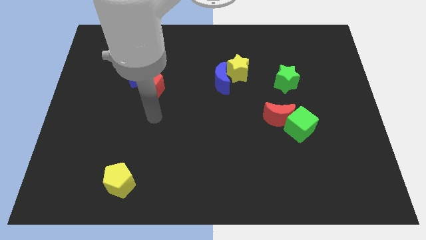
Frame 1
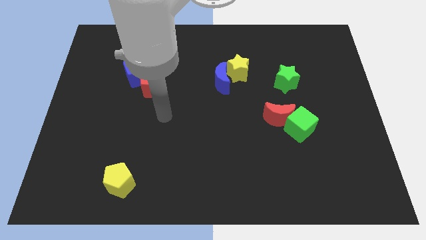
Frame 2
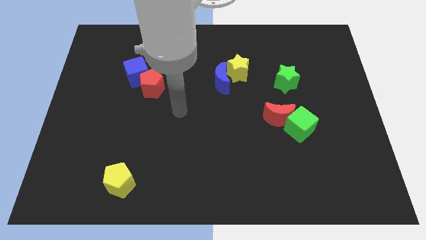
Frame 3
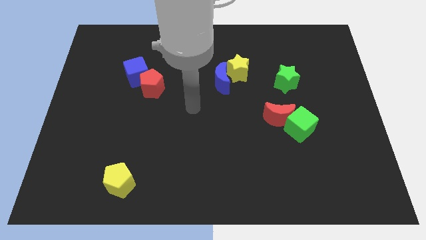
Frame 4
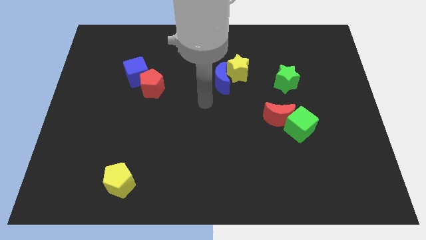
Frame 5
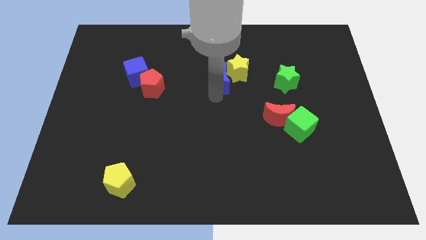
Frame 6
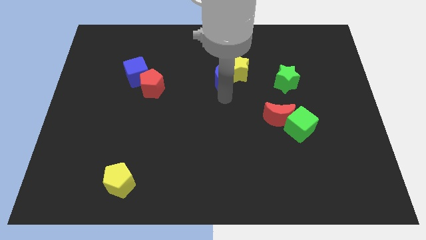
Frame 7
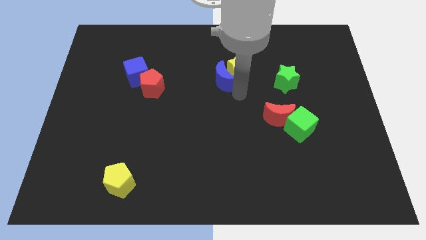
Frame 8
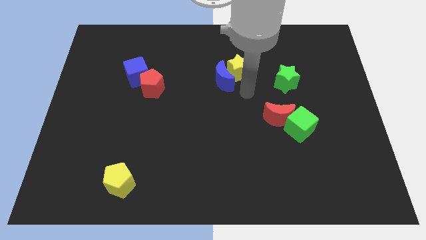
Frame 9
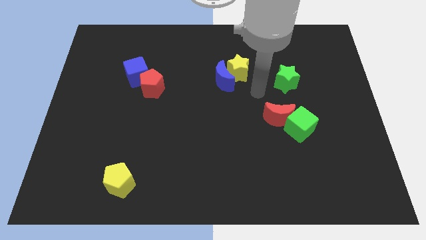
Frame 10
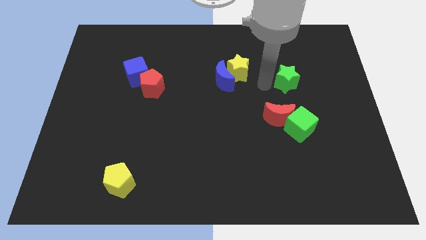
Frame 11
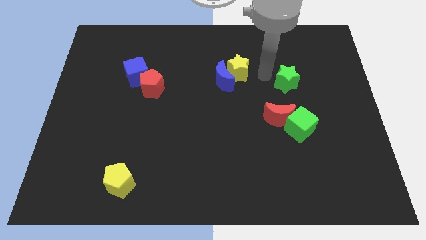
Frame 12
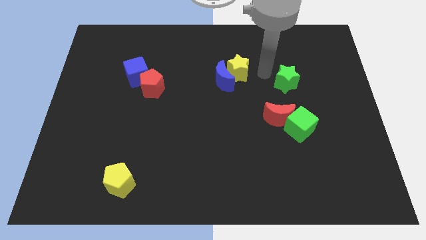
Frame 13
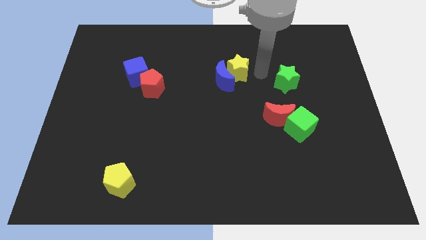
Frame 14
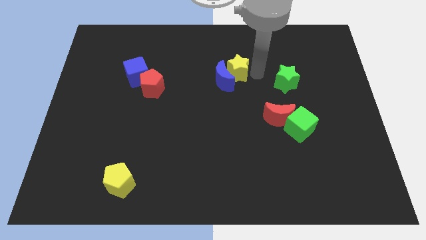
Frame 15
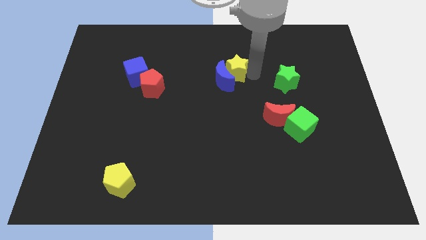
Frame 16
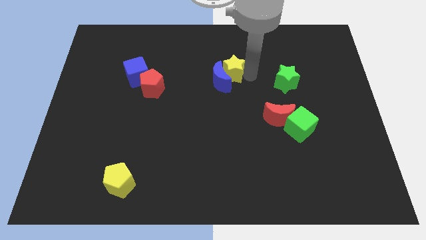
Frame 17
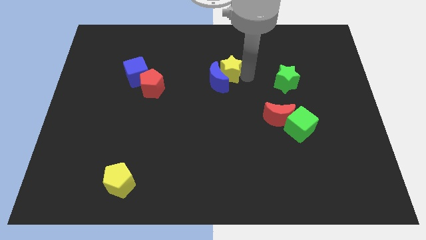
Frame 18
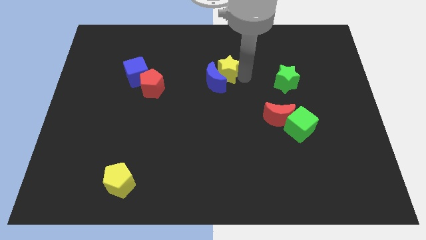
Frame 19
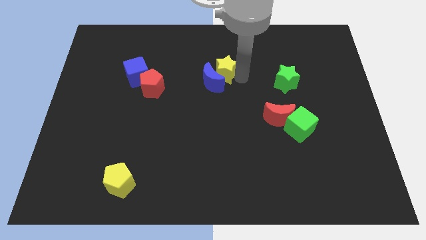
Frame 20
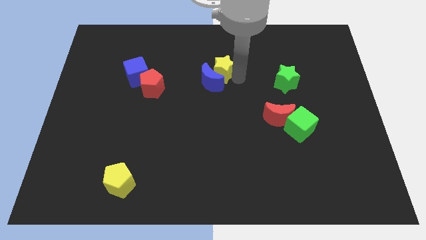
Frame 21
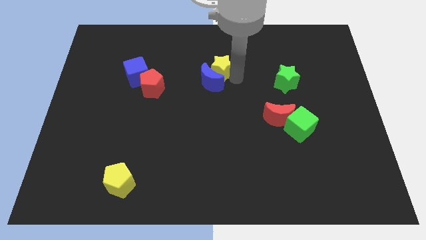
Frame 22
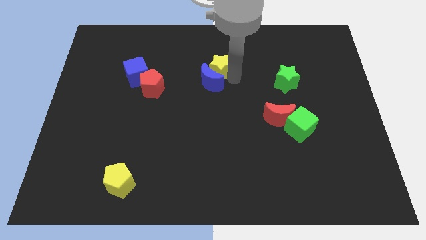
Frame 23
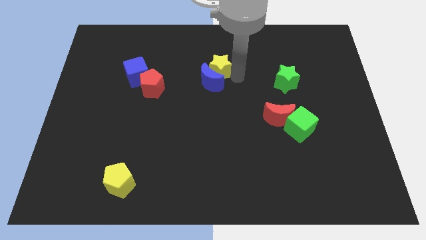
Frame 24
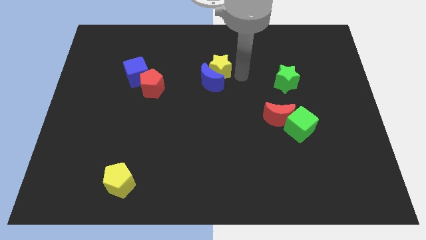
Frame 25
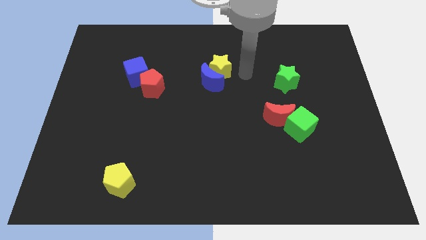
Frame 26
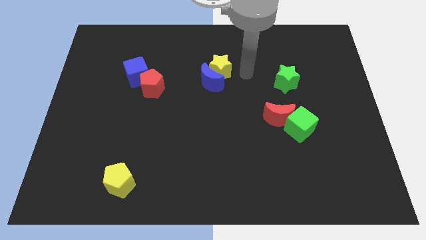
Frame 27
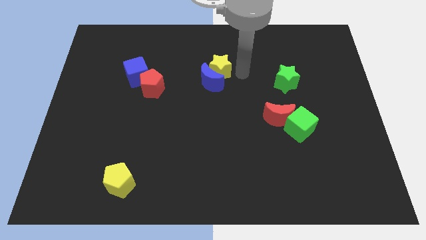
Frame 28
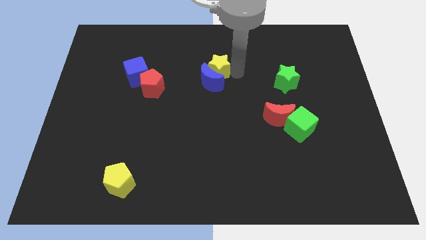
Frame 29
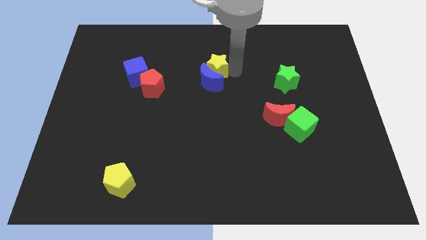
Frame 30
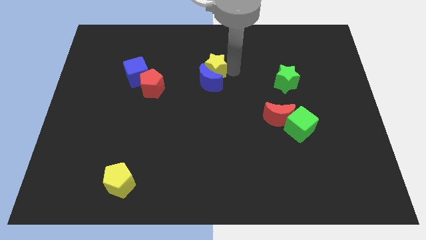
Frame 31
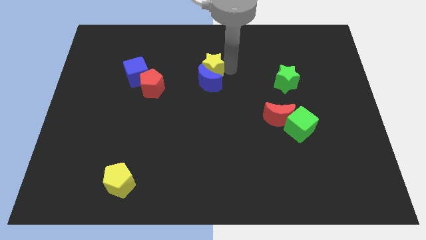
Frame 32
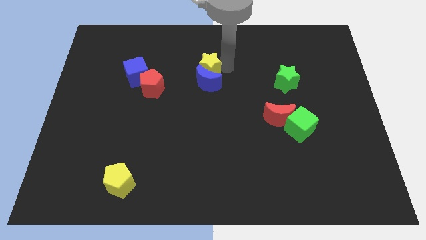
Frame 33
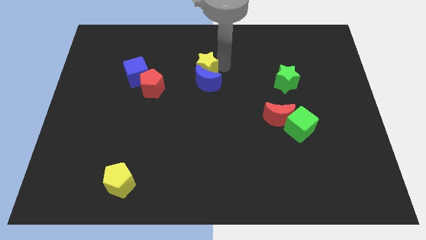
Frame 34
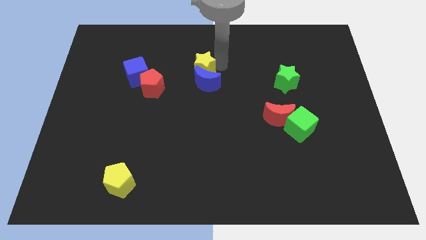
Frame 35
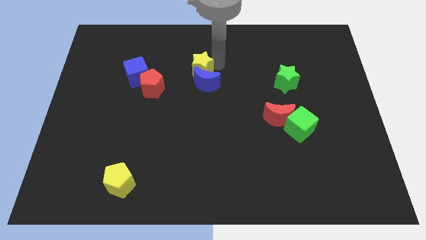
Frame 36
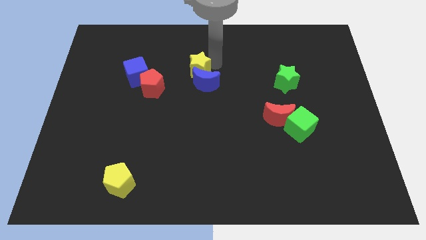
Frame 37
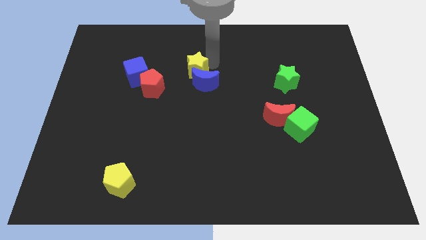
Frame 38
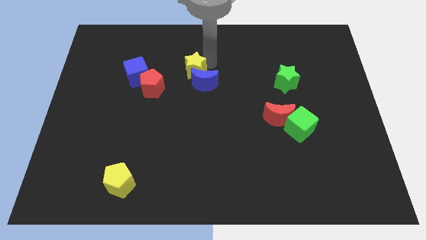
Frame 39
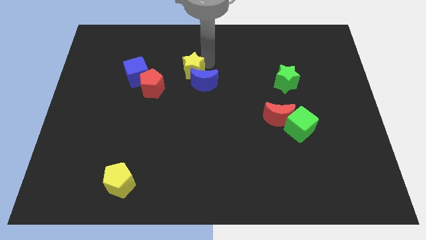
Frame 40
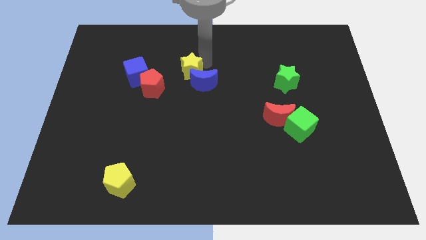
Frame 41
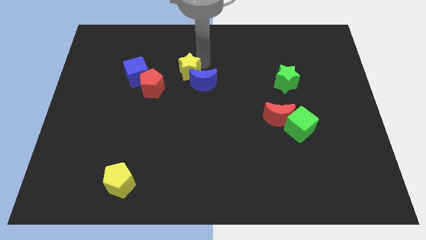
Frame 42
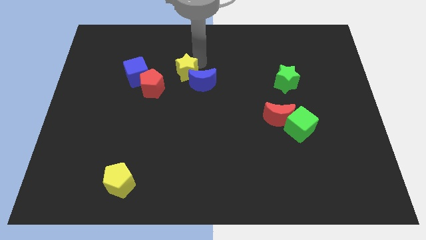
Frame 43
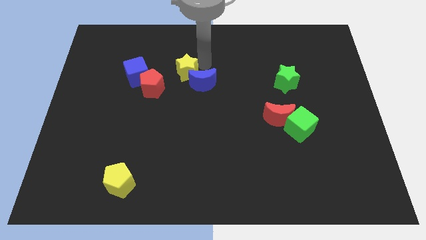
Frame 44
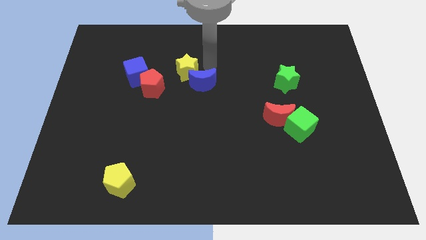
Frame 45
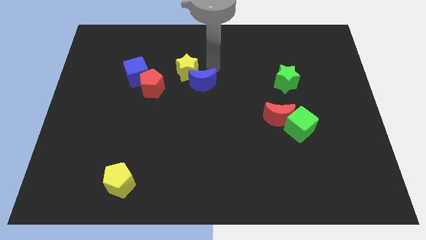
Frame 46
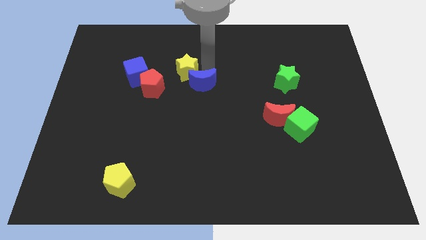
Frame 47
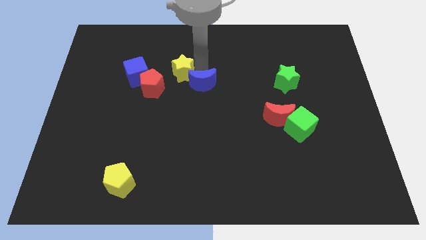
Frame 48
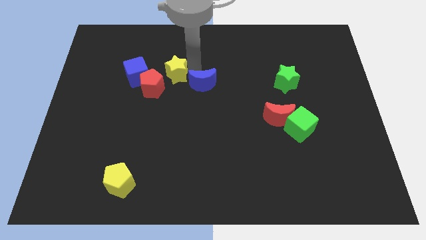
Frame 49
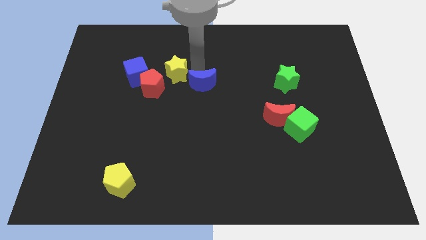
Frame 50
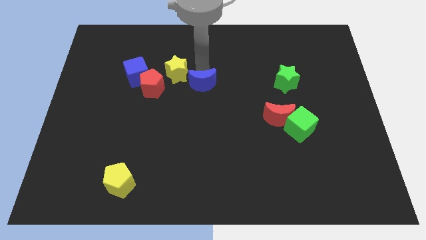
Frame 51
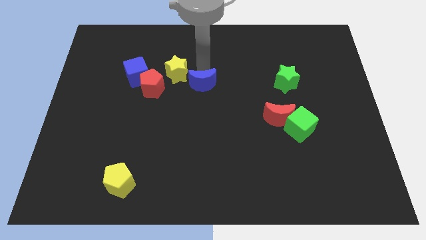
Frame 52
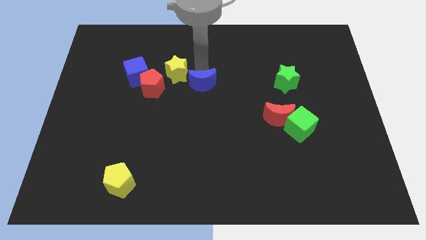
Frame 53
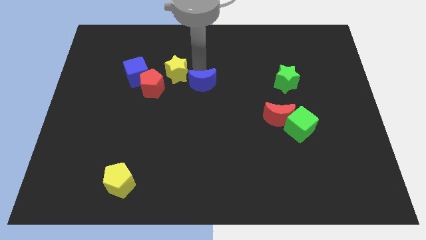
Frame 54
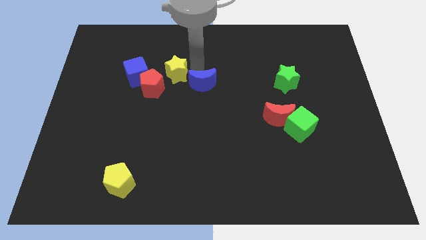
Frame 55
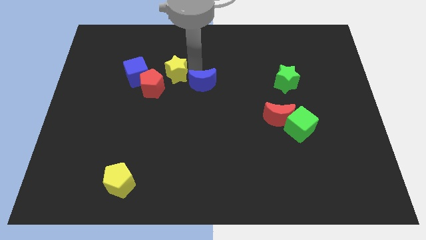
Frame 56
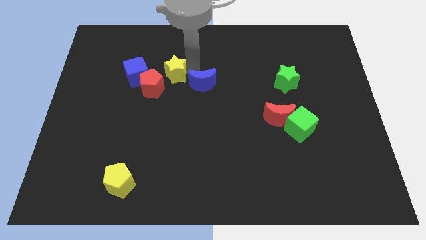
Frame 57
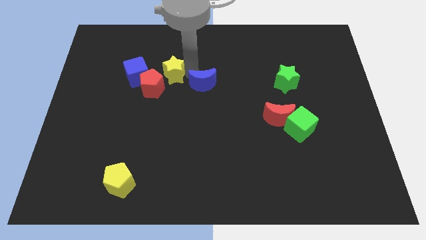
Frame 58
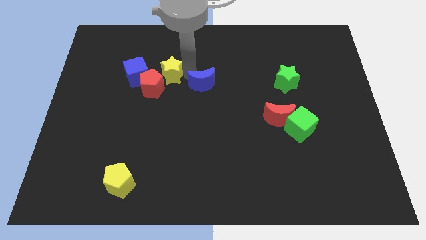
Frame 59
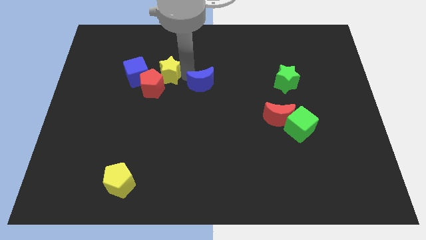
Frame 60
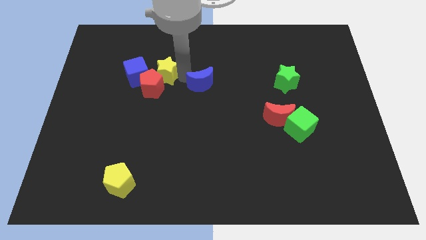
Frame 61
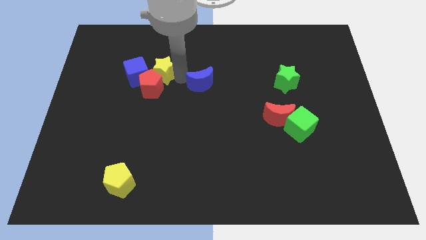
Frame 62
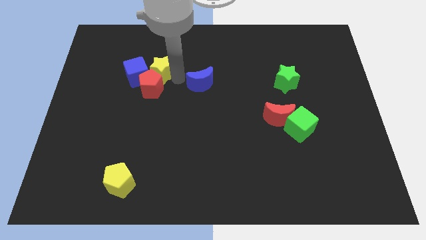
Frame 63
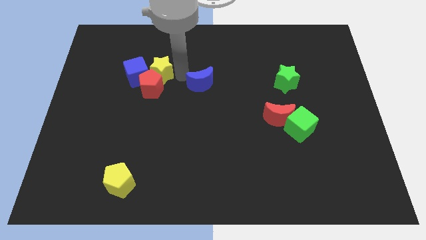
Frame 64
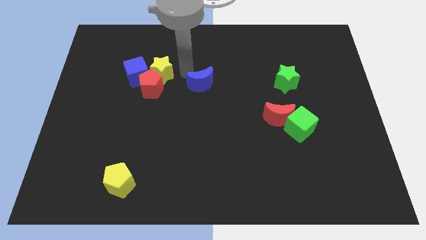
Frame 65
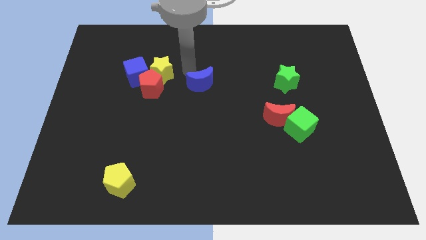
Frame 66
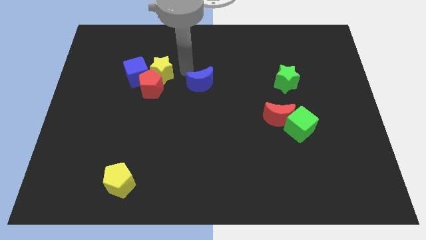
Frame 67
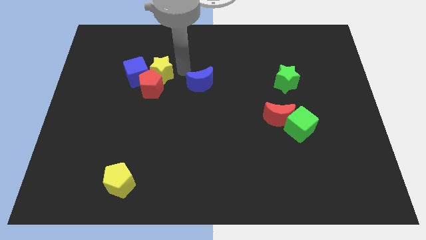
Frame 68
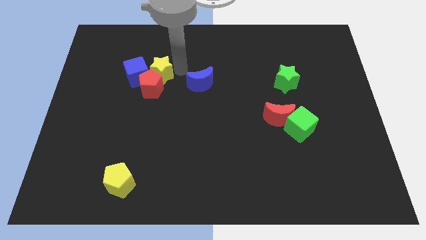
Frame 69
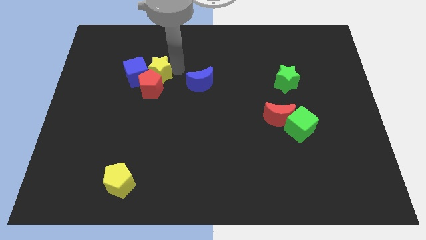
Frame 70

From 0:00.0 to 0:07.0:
slide the yellow star towards the blue cube

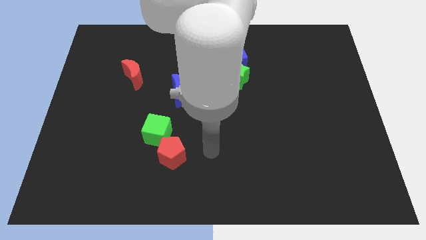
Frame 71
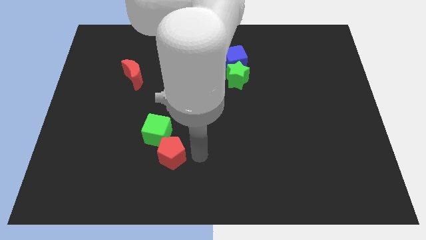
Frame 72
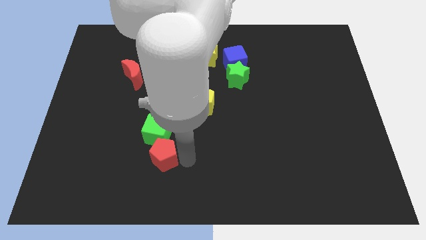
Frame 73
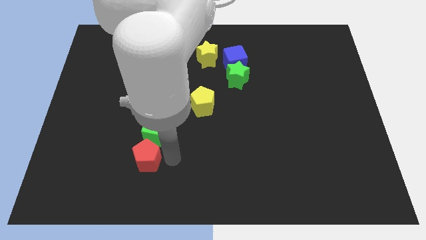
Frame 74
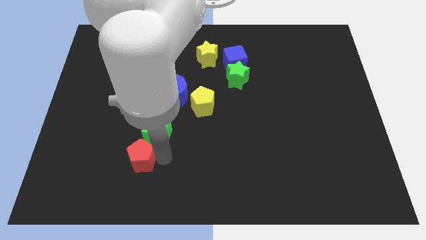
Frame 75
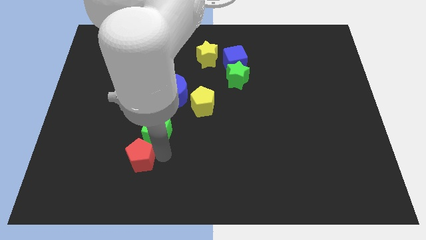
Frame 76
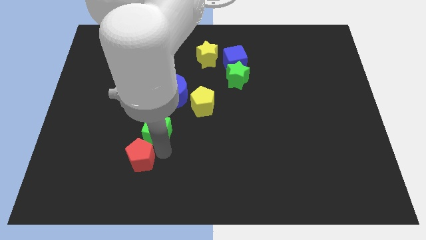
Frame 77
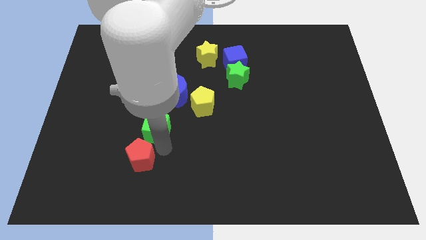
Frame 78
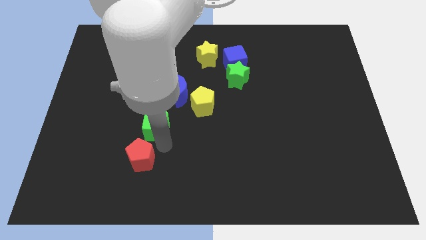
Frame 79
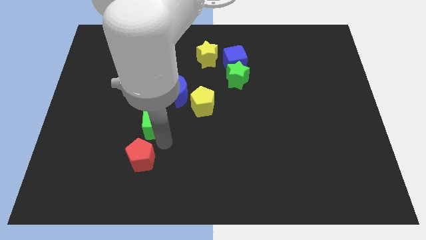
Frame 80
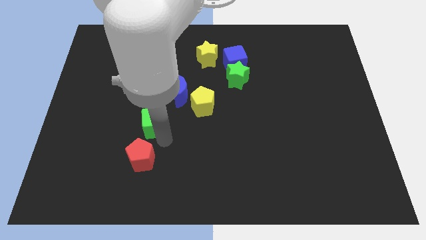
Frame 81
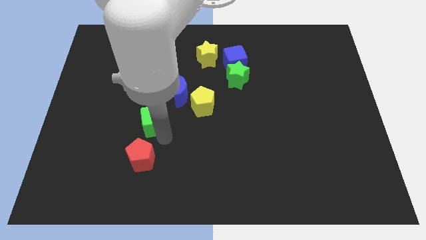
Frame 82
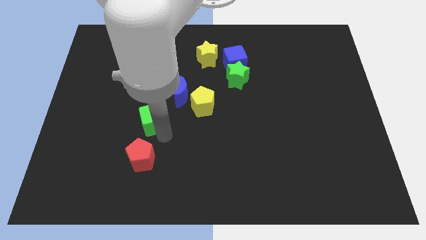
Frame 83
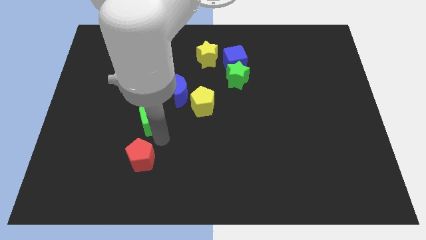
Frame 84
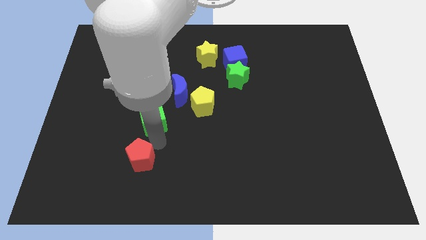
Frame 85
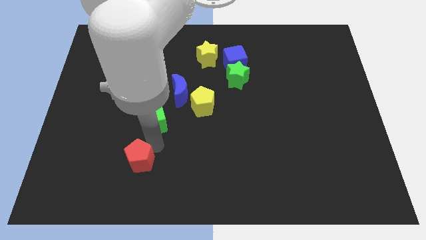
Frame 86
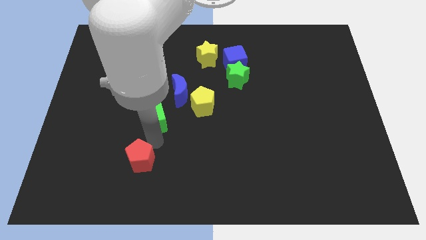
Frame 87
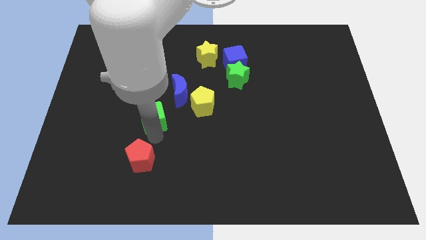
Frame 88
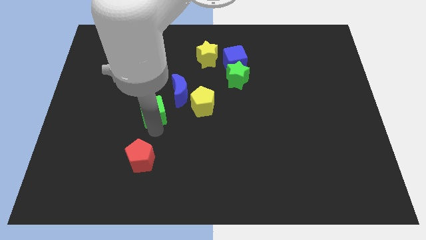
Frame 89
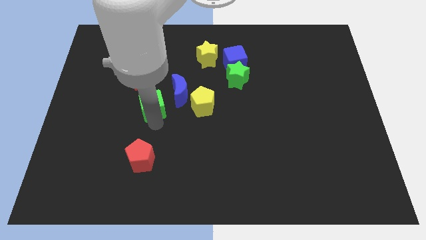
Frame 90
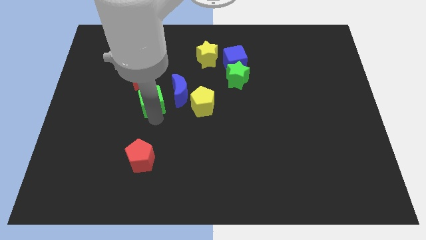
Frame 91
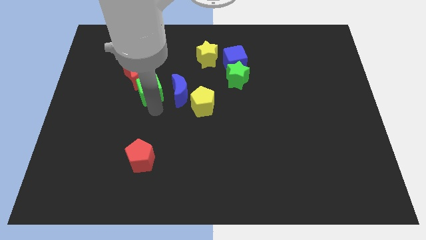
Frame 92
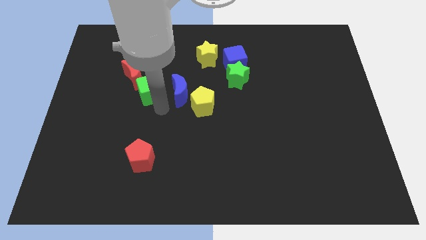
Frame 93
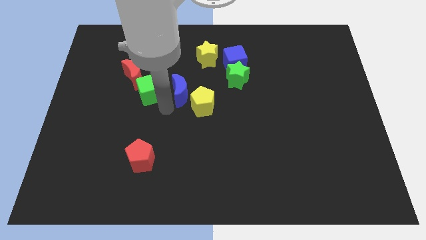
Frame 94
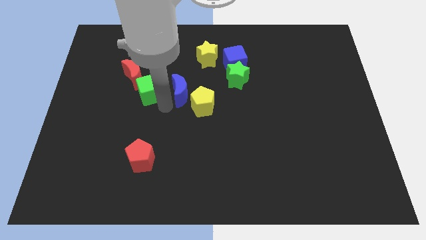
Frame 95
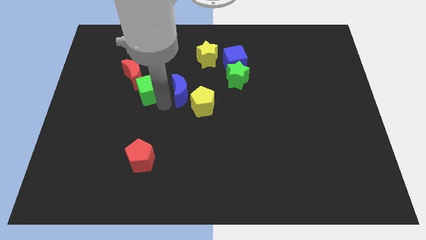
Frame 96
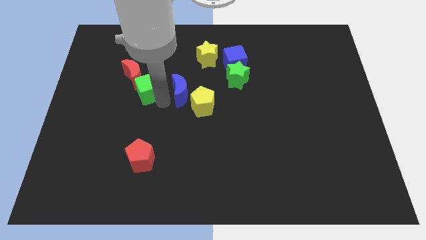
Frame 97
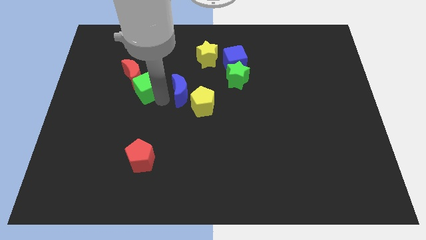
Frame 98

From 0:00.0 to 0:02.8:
put the green cube next to the red moon
